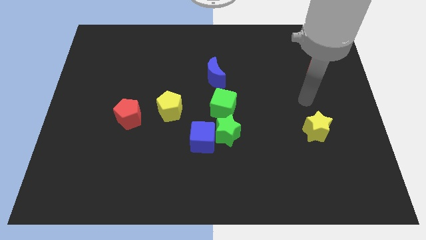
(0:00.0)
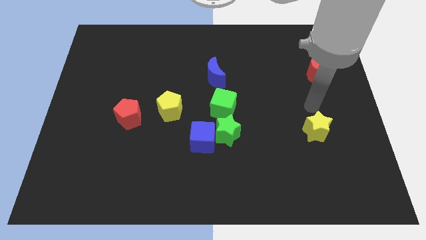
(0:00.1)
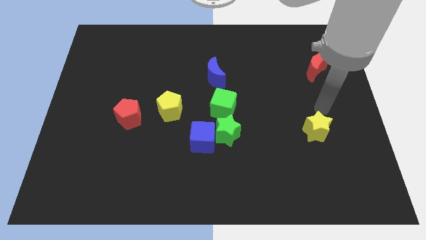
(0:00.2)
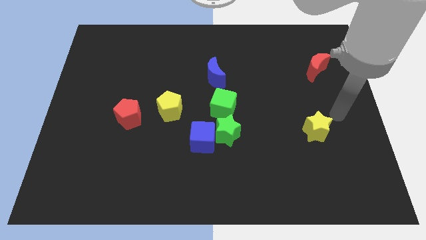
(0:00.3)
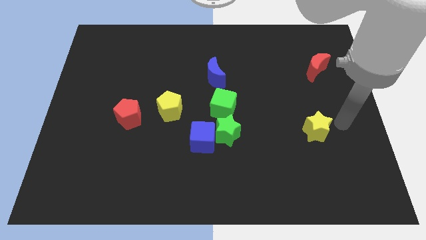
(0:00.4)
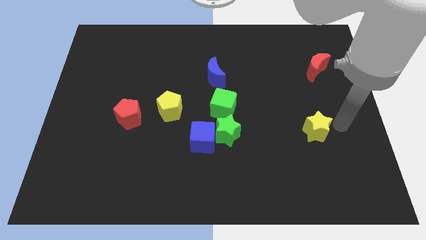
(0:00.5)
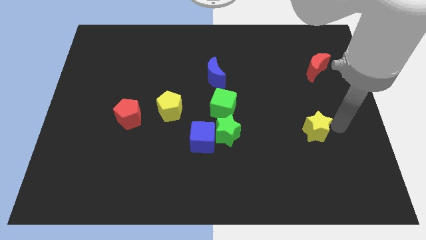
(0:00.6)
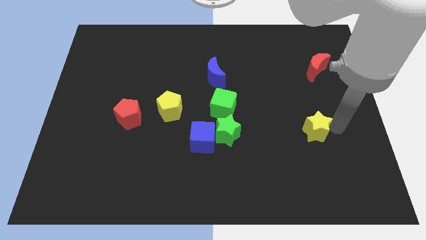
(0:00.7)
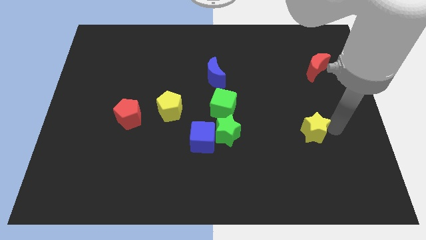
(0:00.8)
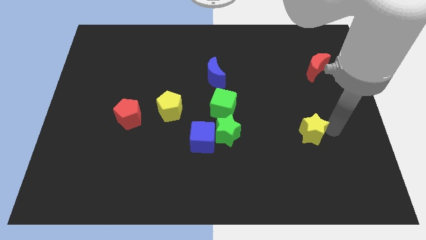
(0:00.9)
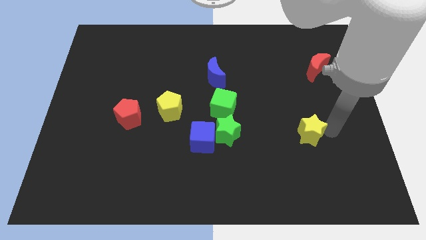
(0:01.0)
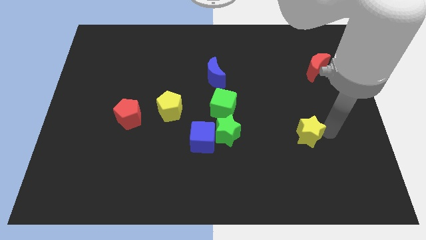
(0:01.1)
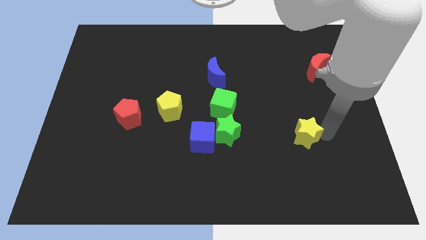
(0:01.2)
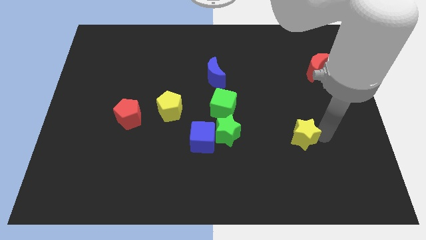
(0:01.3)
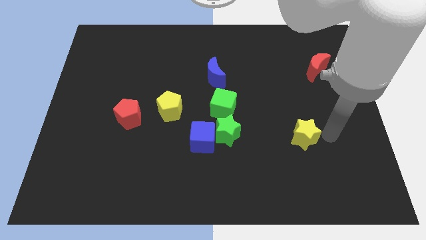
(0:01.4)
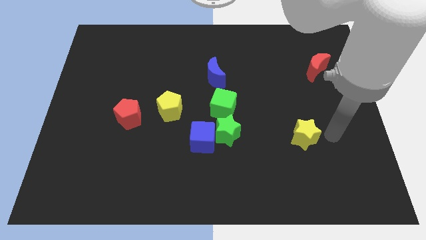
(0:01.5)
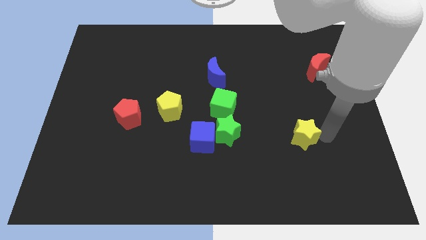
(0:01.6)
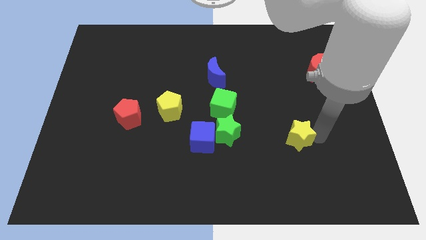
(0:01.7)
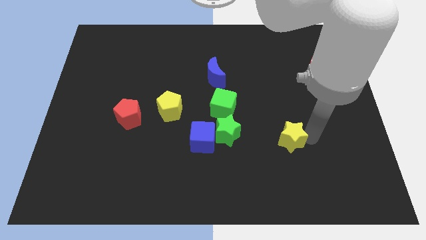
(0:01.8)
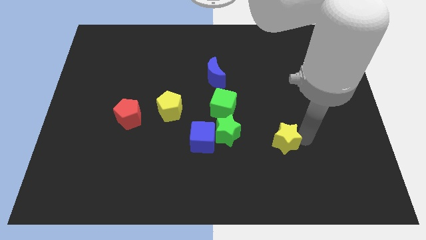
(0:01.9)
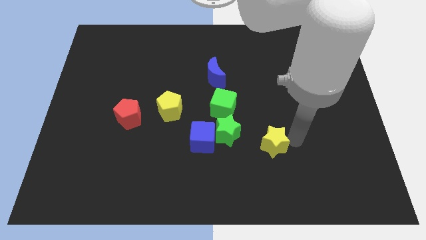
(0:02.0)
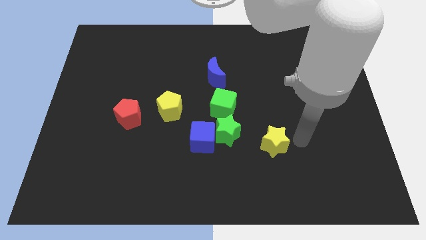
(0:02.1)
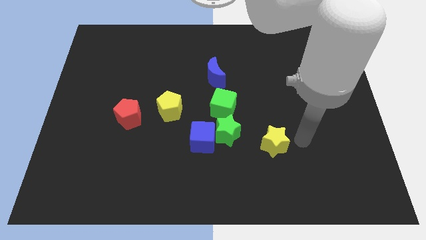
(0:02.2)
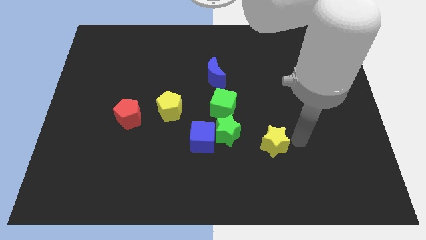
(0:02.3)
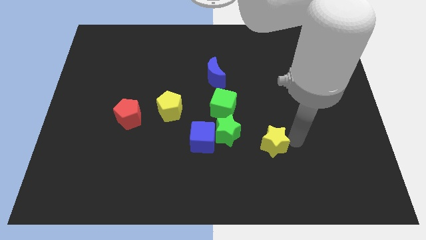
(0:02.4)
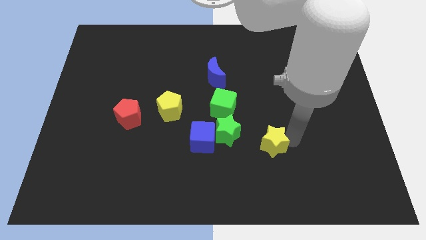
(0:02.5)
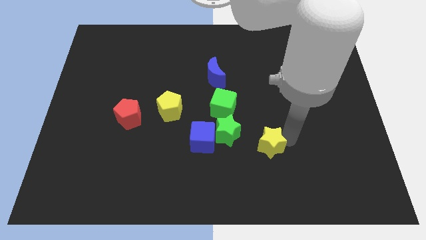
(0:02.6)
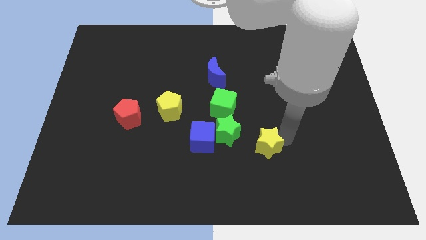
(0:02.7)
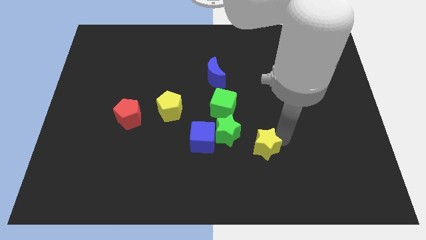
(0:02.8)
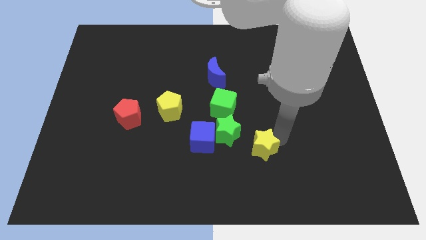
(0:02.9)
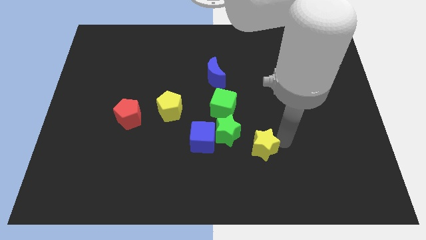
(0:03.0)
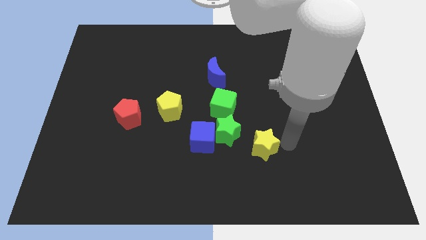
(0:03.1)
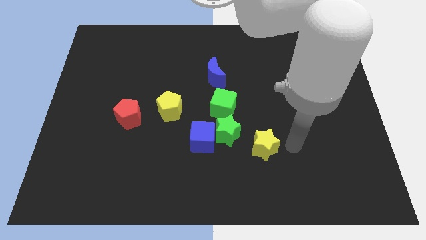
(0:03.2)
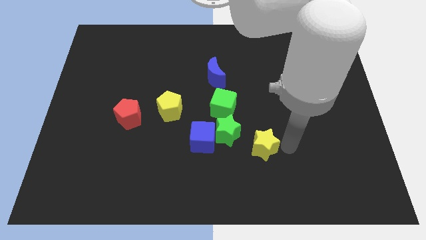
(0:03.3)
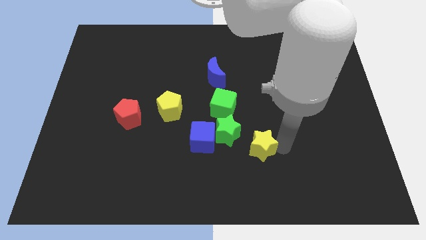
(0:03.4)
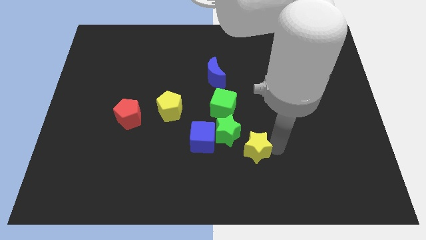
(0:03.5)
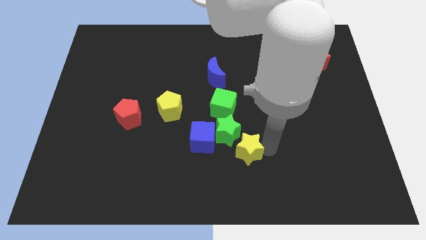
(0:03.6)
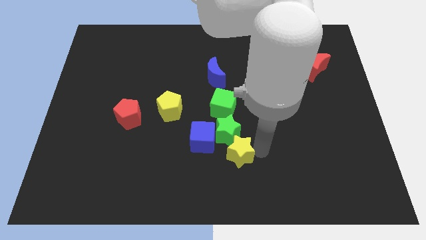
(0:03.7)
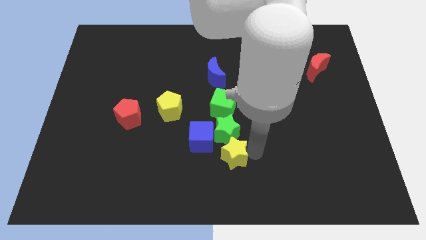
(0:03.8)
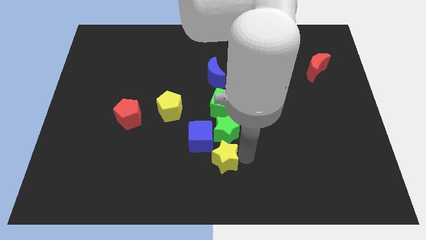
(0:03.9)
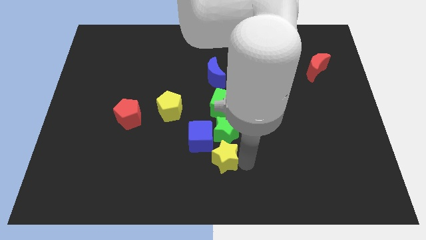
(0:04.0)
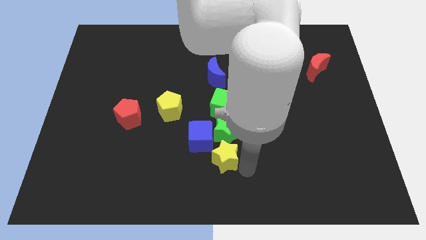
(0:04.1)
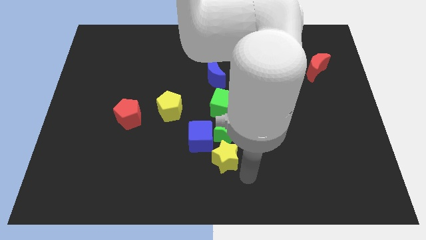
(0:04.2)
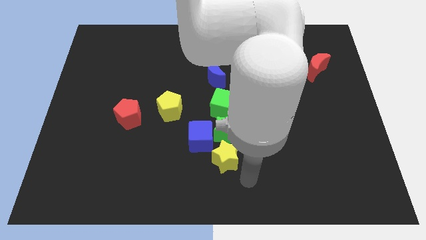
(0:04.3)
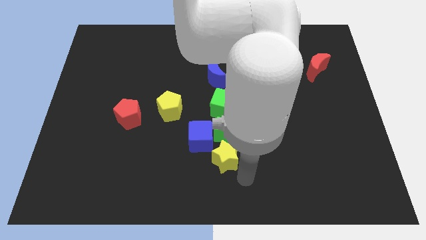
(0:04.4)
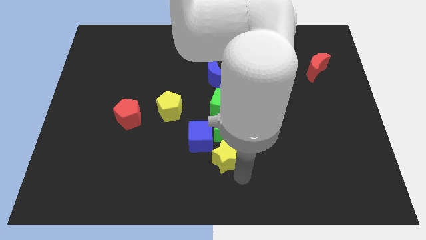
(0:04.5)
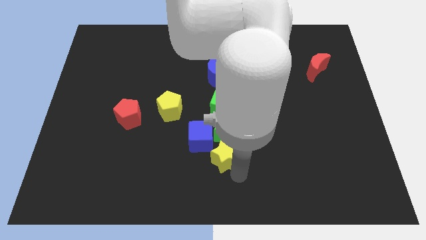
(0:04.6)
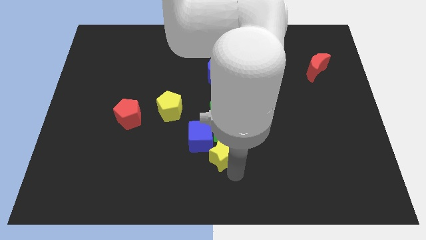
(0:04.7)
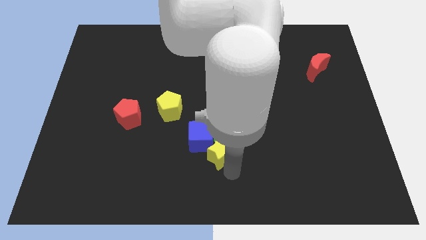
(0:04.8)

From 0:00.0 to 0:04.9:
slide the yellow star next to the blue cube

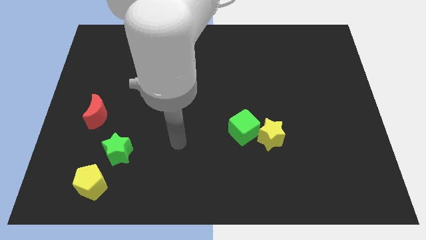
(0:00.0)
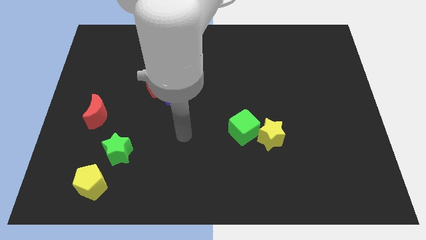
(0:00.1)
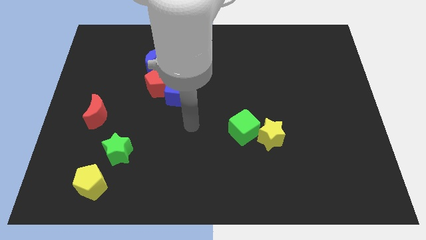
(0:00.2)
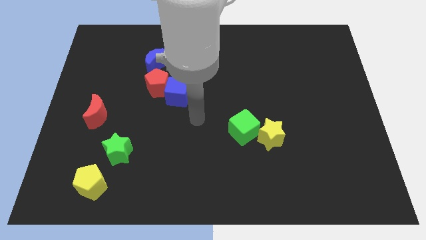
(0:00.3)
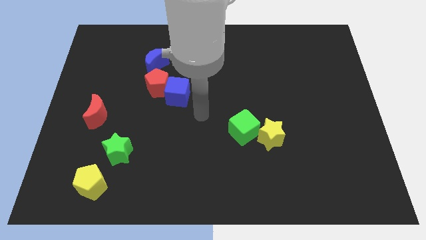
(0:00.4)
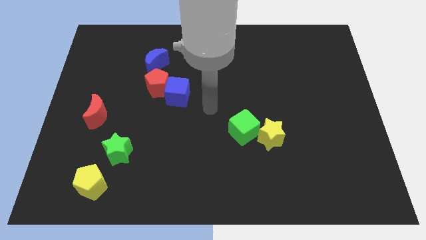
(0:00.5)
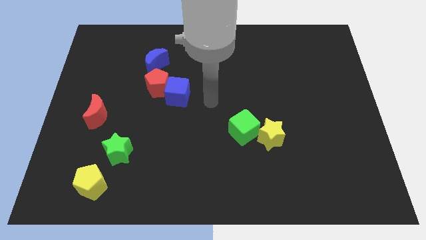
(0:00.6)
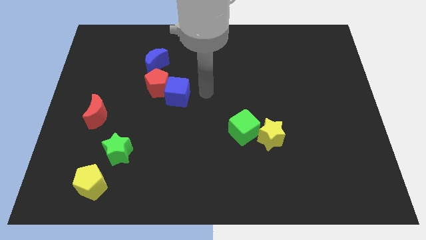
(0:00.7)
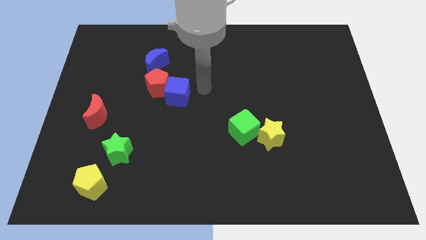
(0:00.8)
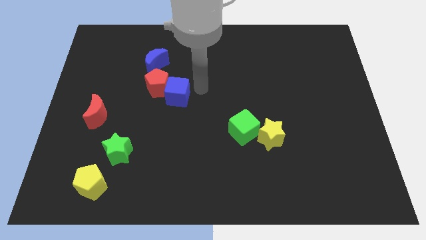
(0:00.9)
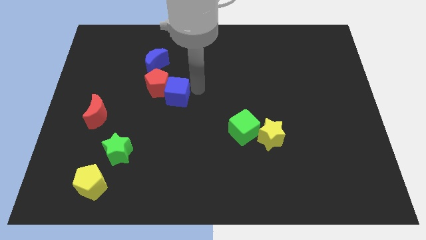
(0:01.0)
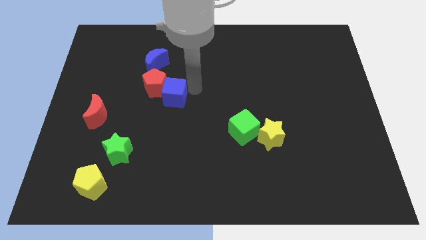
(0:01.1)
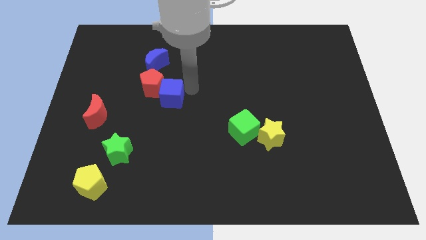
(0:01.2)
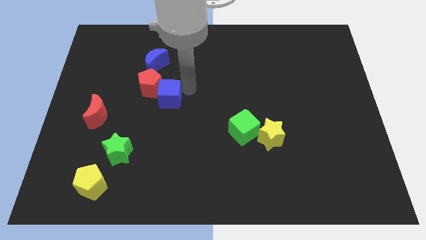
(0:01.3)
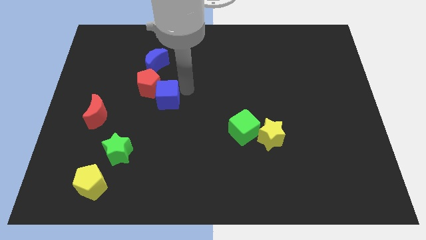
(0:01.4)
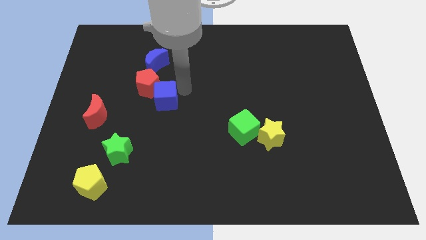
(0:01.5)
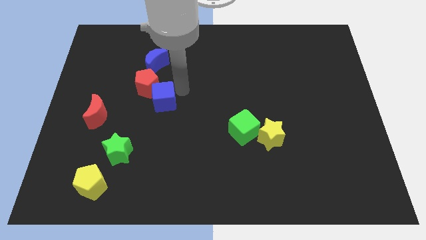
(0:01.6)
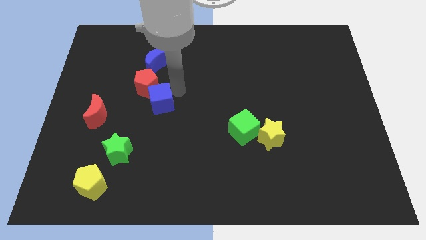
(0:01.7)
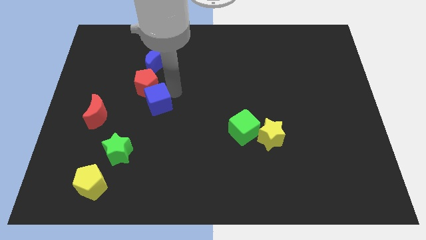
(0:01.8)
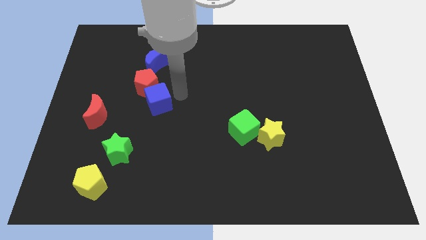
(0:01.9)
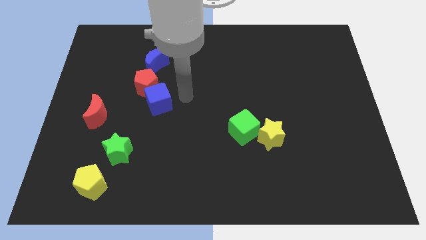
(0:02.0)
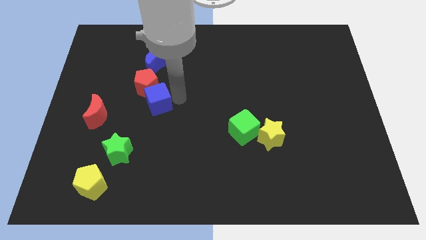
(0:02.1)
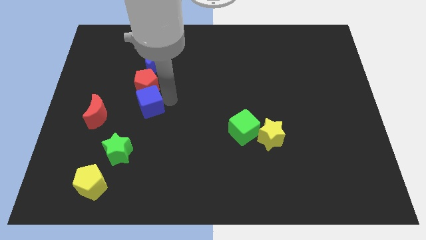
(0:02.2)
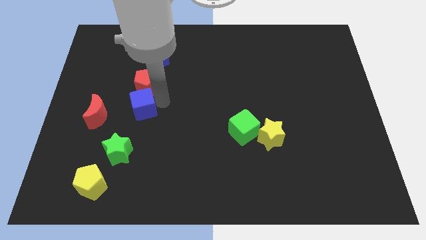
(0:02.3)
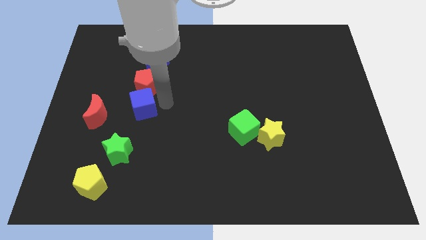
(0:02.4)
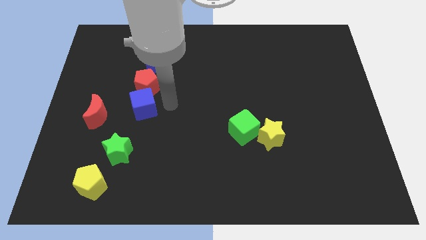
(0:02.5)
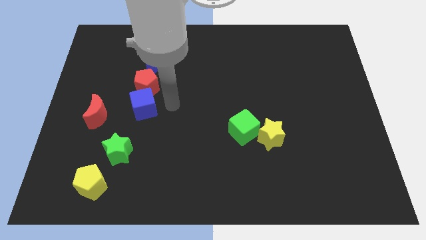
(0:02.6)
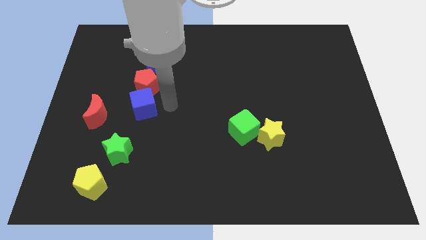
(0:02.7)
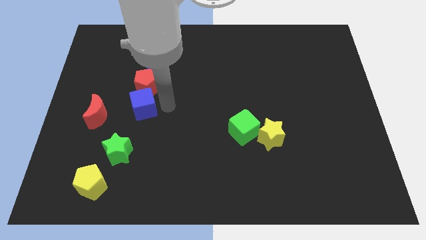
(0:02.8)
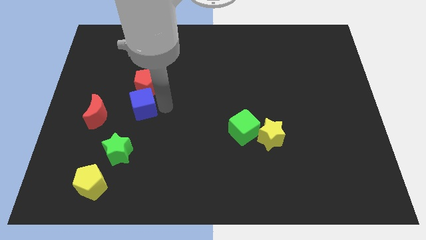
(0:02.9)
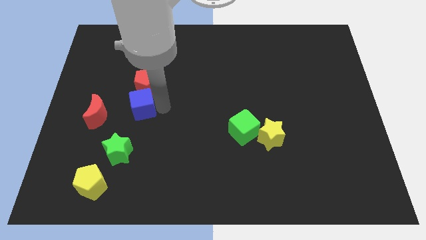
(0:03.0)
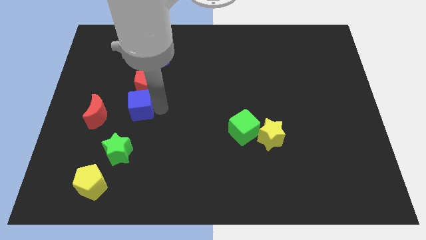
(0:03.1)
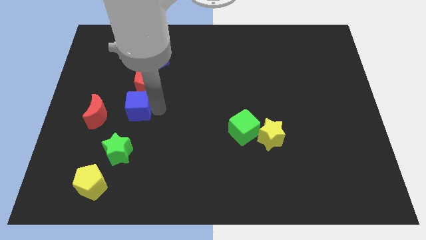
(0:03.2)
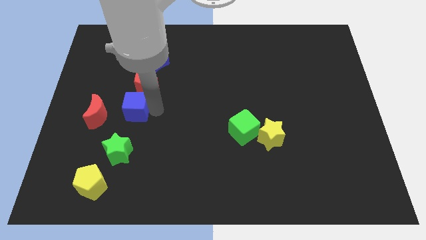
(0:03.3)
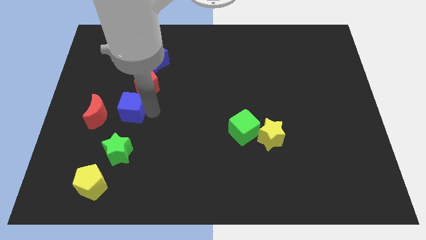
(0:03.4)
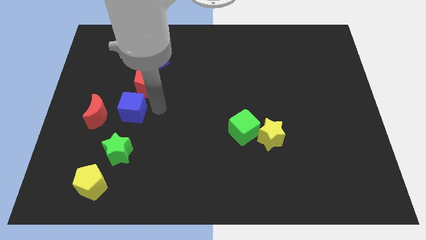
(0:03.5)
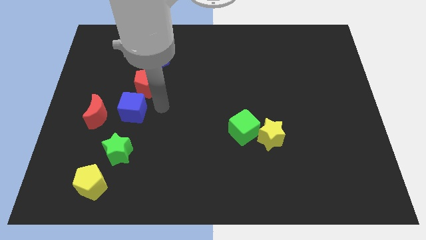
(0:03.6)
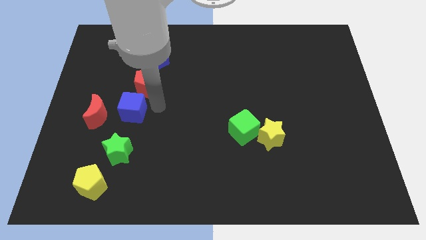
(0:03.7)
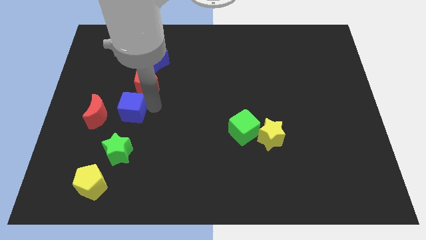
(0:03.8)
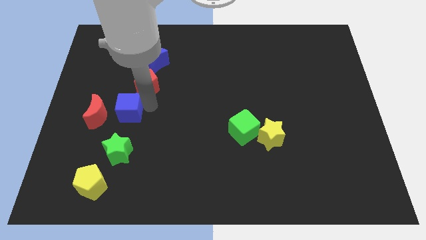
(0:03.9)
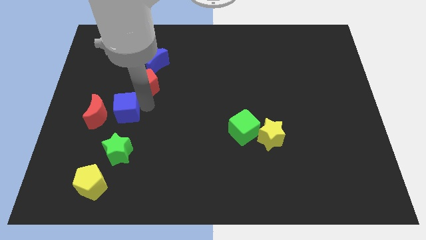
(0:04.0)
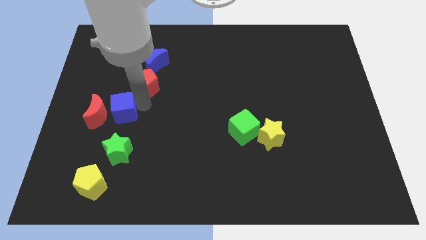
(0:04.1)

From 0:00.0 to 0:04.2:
put the blue cube next to the red moon
